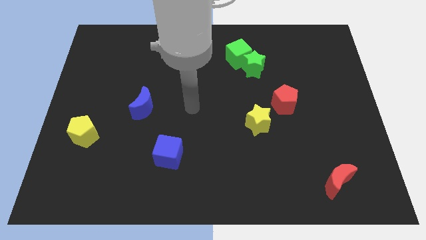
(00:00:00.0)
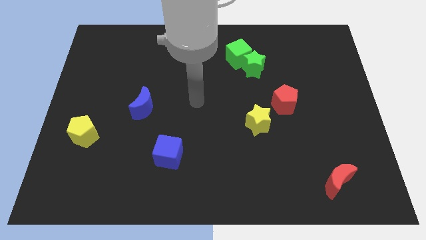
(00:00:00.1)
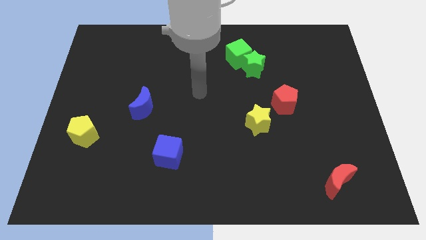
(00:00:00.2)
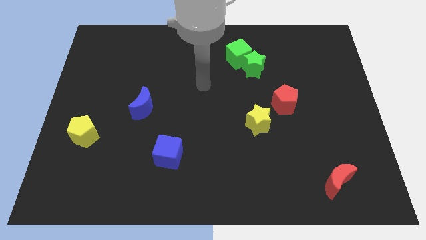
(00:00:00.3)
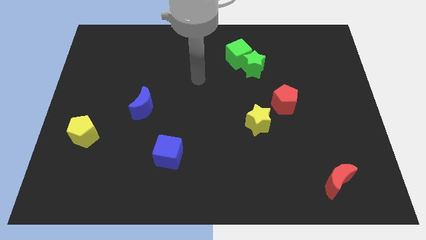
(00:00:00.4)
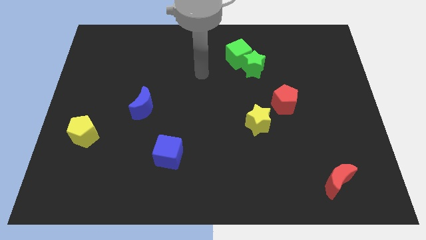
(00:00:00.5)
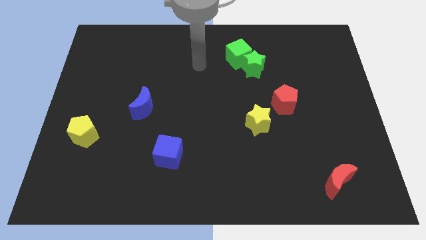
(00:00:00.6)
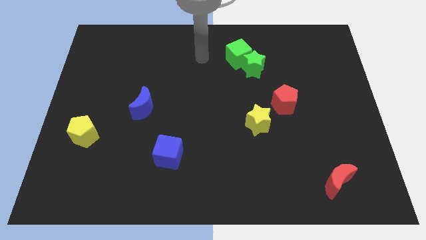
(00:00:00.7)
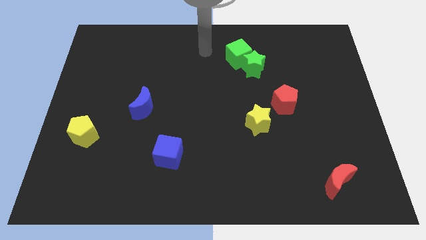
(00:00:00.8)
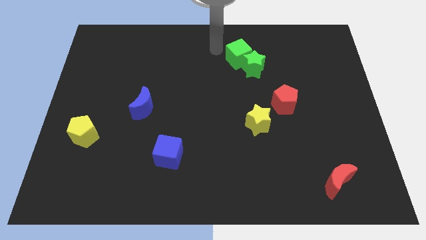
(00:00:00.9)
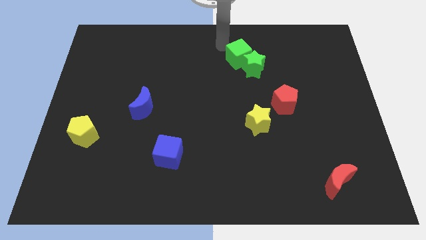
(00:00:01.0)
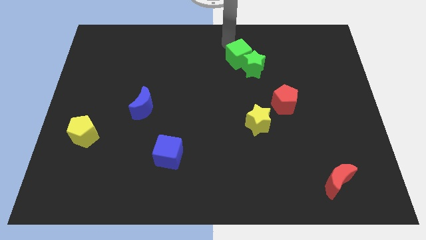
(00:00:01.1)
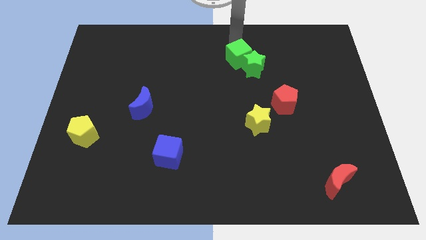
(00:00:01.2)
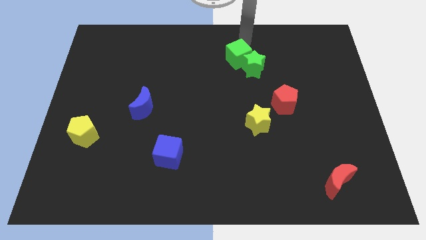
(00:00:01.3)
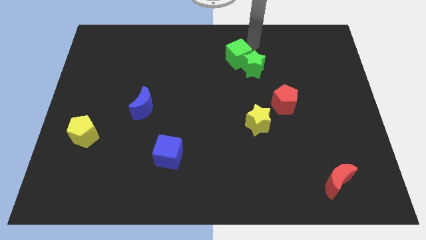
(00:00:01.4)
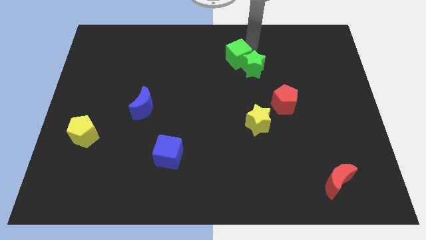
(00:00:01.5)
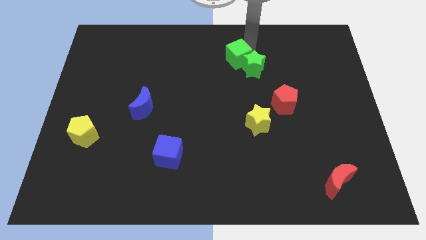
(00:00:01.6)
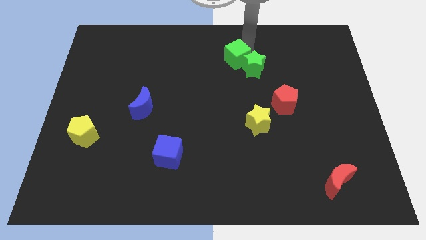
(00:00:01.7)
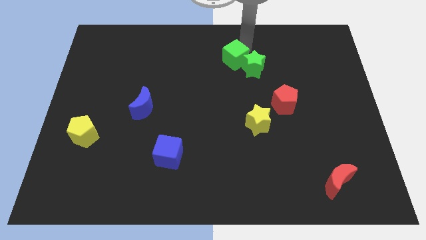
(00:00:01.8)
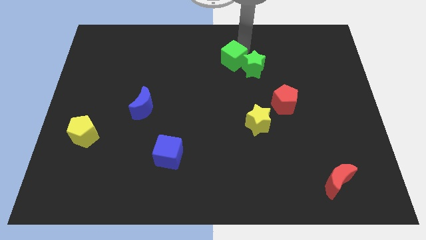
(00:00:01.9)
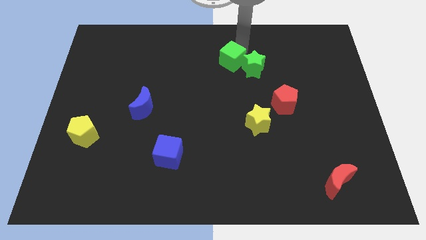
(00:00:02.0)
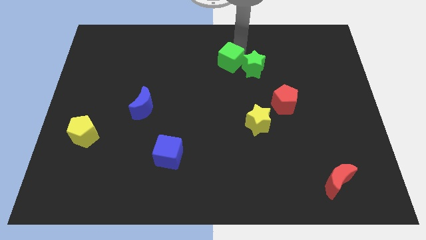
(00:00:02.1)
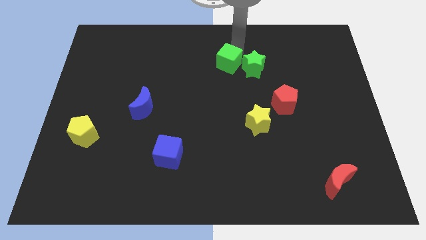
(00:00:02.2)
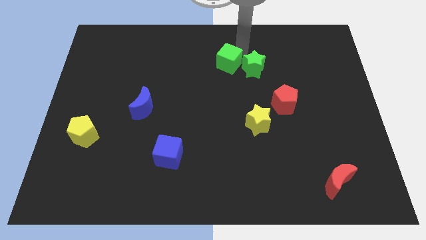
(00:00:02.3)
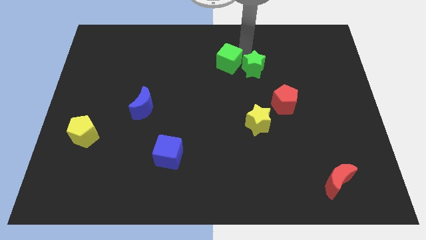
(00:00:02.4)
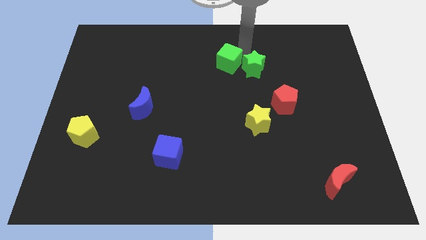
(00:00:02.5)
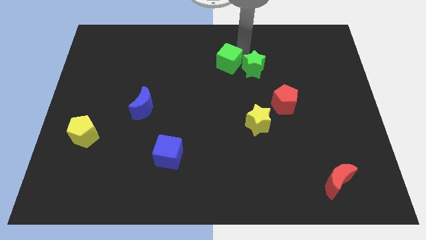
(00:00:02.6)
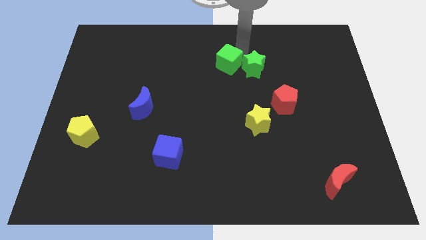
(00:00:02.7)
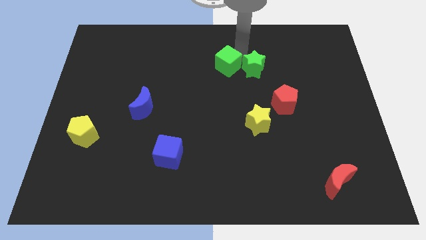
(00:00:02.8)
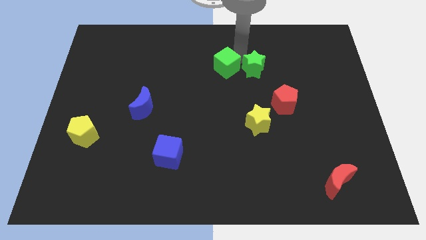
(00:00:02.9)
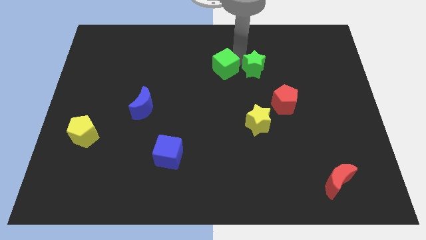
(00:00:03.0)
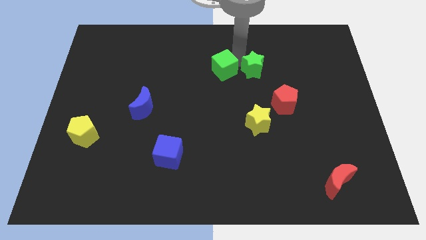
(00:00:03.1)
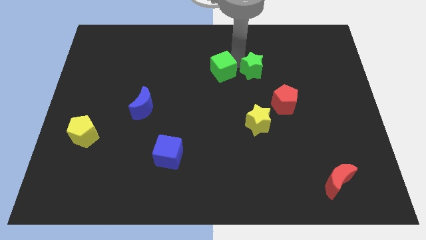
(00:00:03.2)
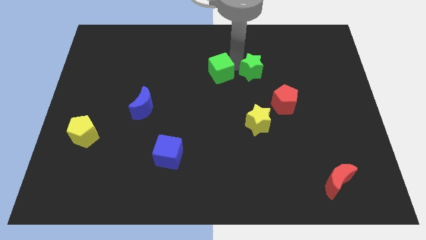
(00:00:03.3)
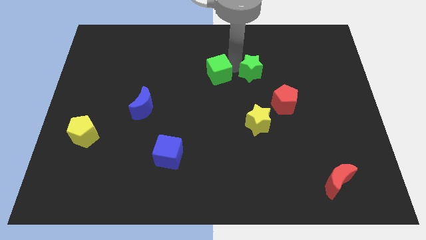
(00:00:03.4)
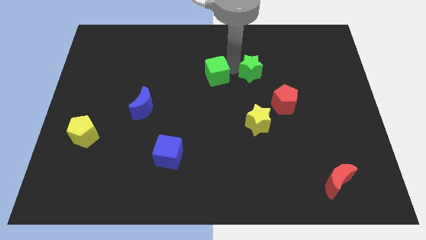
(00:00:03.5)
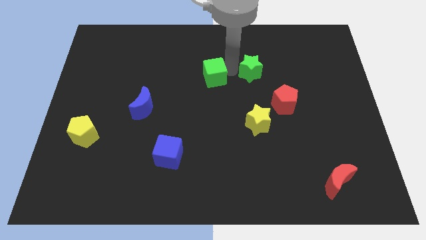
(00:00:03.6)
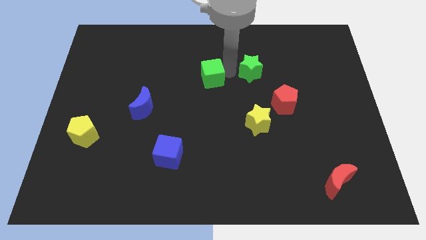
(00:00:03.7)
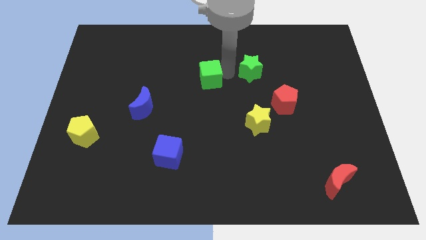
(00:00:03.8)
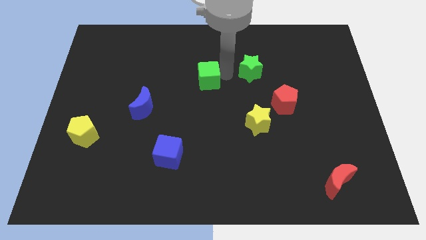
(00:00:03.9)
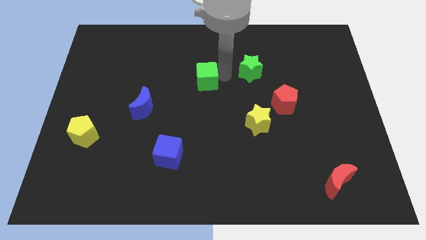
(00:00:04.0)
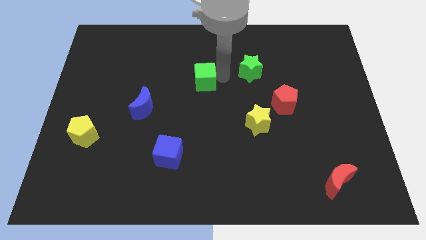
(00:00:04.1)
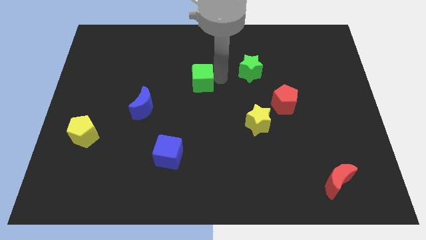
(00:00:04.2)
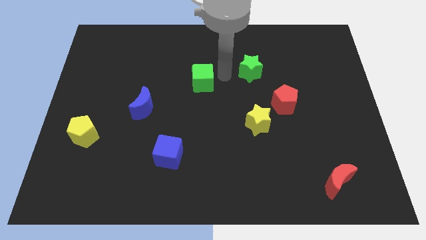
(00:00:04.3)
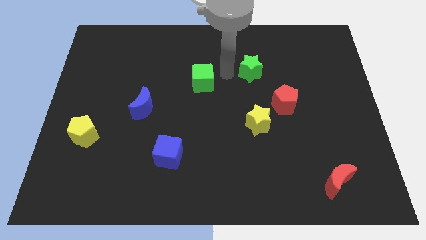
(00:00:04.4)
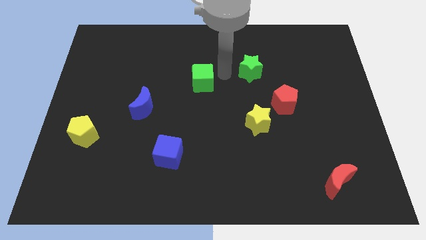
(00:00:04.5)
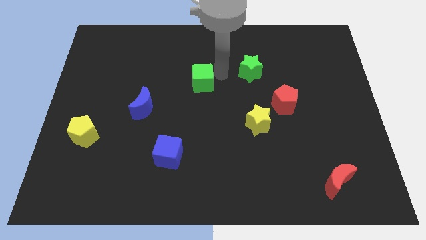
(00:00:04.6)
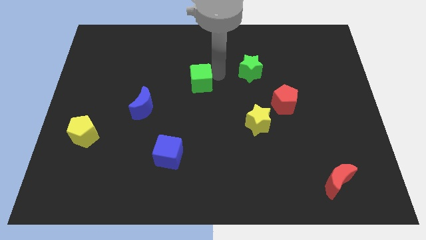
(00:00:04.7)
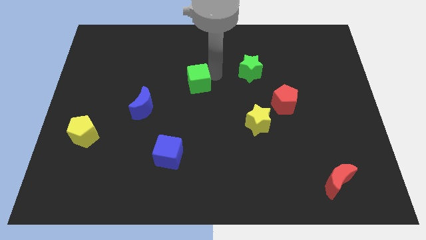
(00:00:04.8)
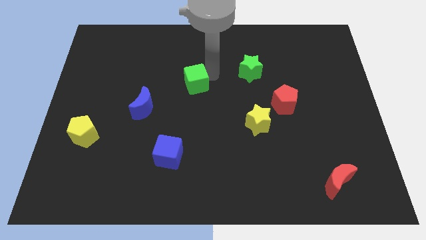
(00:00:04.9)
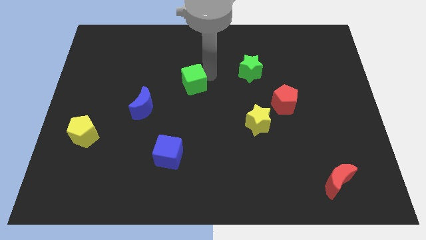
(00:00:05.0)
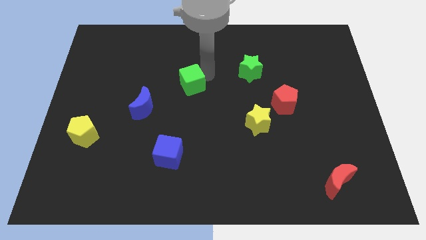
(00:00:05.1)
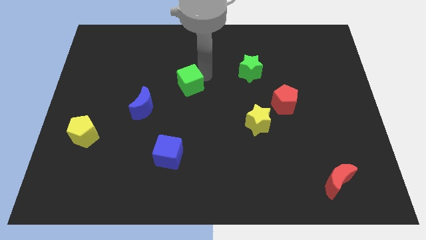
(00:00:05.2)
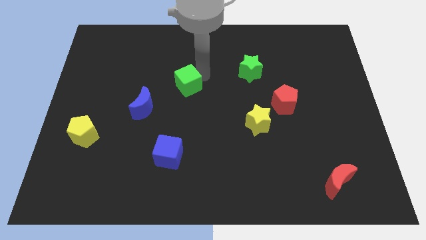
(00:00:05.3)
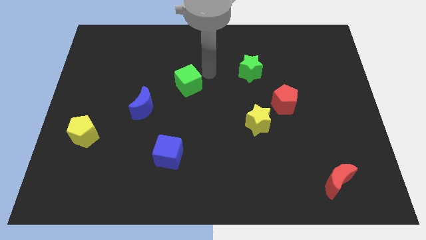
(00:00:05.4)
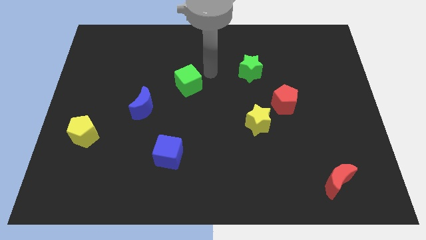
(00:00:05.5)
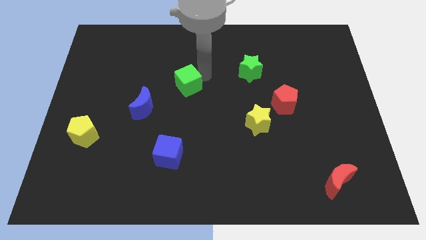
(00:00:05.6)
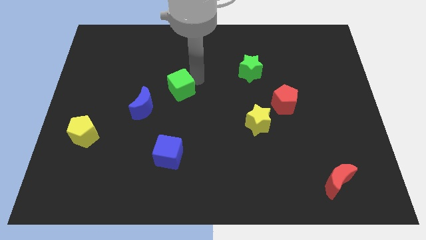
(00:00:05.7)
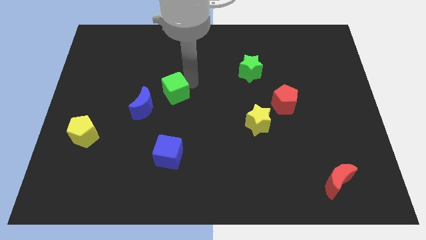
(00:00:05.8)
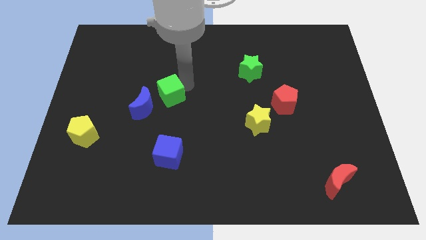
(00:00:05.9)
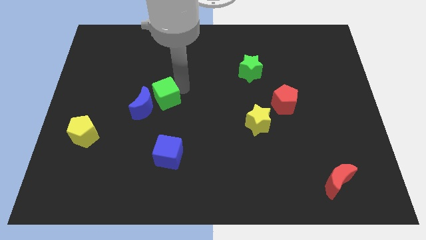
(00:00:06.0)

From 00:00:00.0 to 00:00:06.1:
put the green cube close to the blue moon

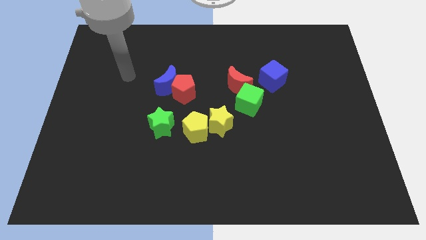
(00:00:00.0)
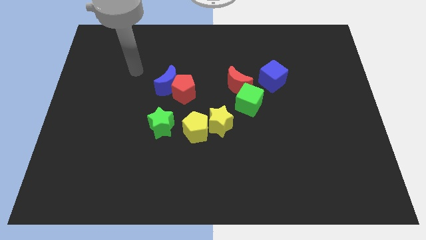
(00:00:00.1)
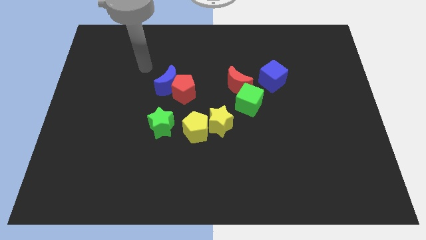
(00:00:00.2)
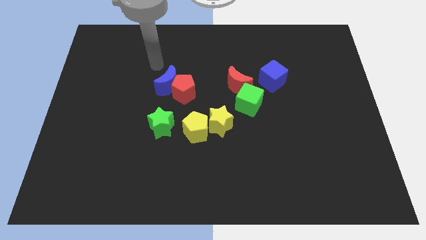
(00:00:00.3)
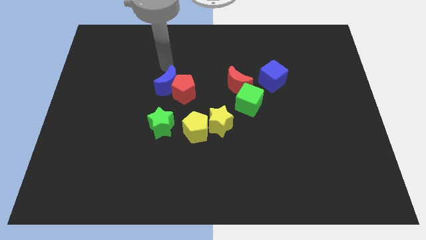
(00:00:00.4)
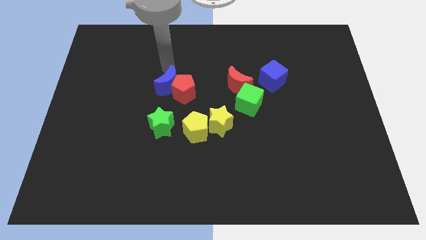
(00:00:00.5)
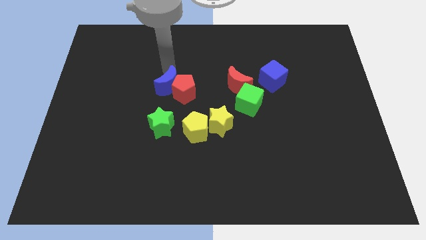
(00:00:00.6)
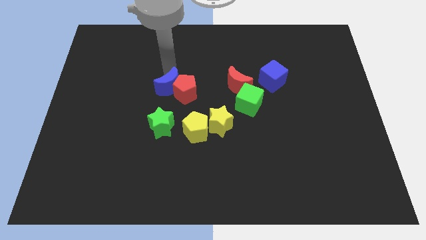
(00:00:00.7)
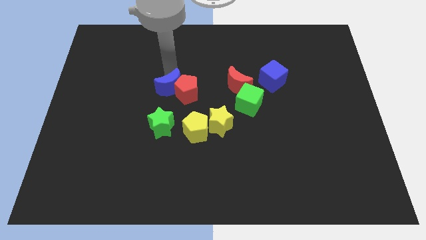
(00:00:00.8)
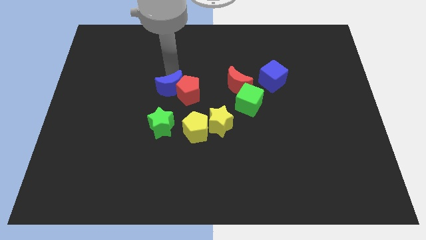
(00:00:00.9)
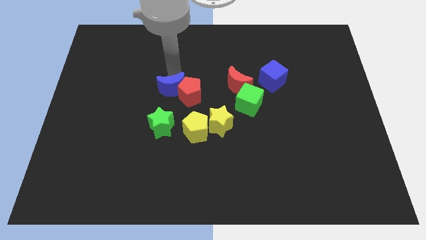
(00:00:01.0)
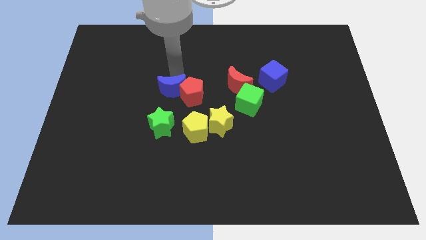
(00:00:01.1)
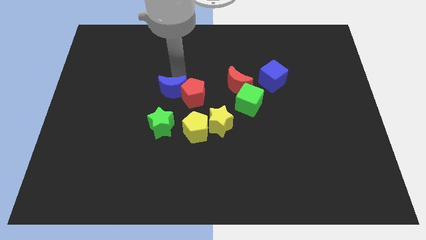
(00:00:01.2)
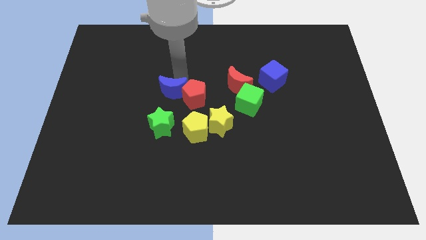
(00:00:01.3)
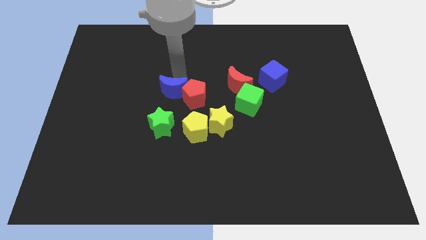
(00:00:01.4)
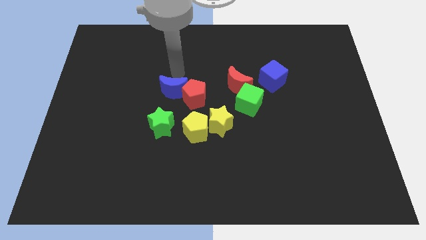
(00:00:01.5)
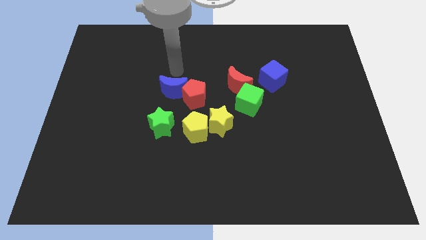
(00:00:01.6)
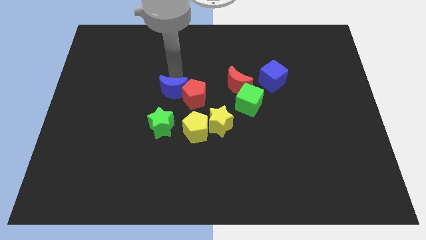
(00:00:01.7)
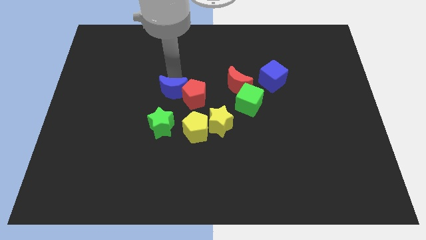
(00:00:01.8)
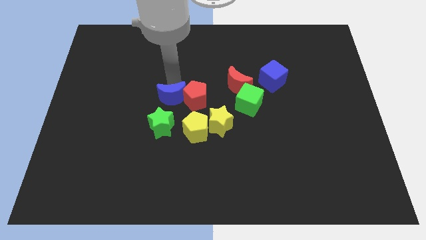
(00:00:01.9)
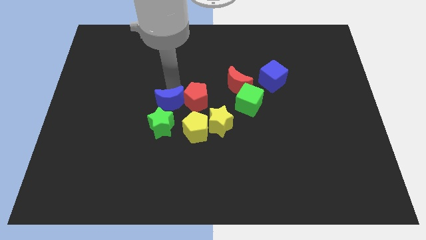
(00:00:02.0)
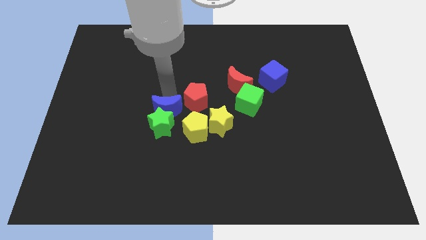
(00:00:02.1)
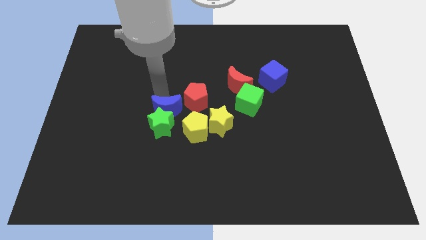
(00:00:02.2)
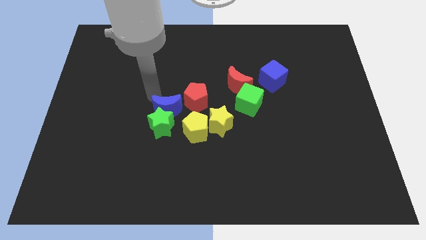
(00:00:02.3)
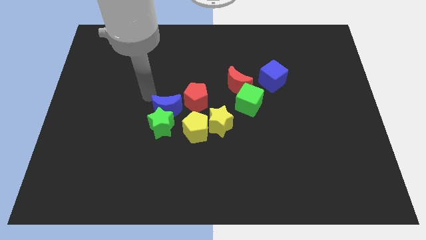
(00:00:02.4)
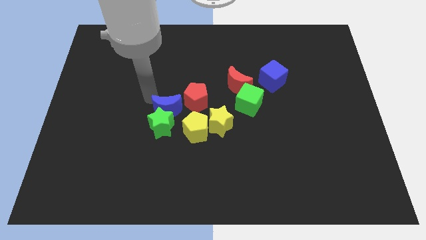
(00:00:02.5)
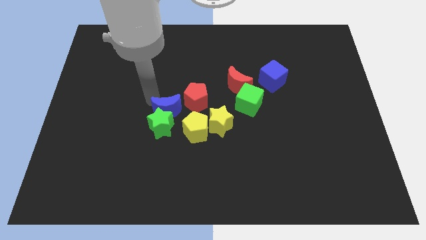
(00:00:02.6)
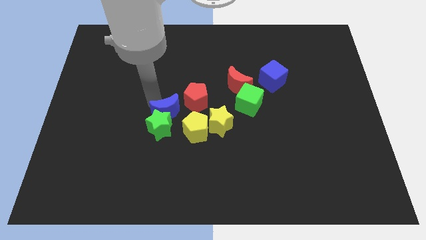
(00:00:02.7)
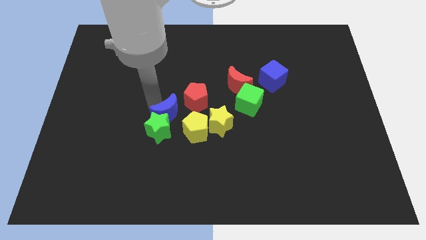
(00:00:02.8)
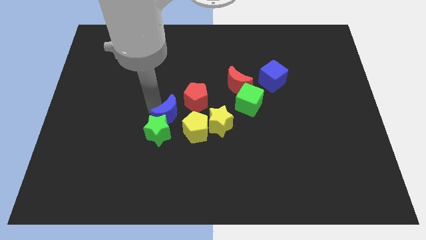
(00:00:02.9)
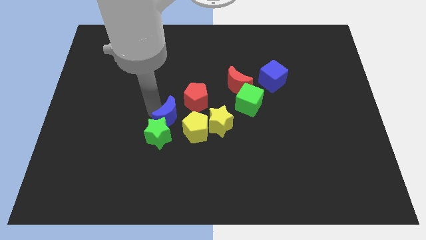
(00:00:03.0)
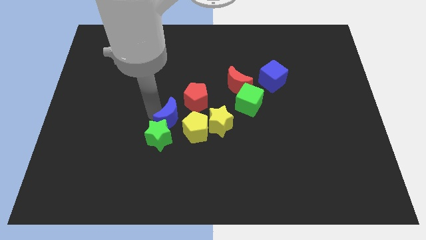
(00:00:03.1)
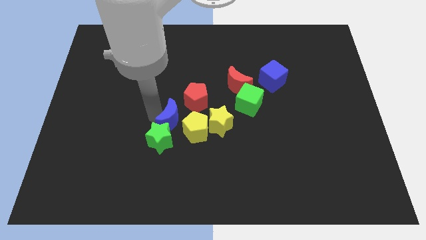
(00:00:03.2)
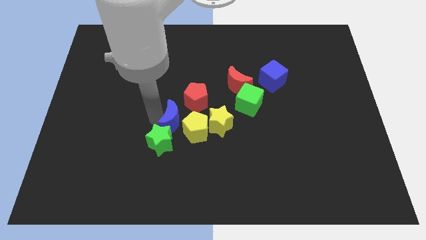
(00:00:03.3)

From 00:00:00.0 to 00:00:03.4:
slide the blue moon close to the yellow pentagon
